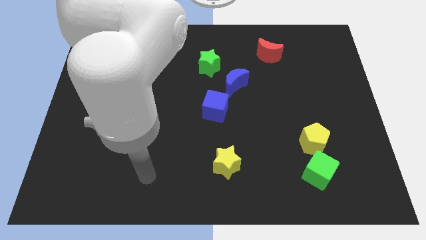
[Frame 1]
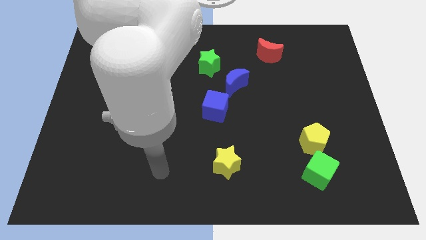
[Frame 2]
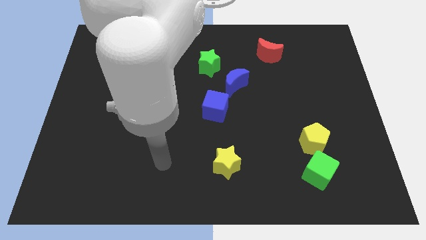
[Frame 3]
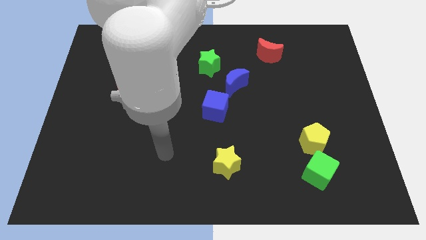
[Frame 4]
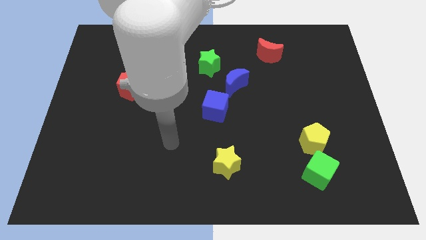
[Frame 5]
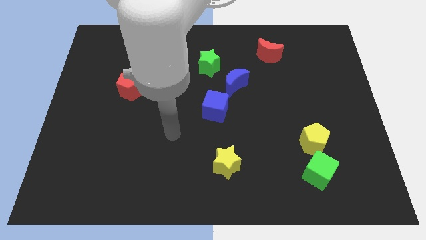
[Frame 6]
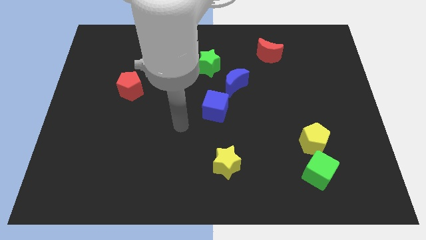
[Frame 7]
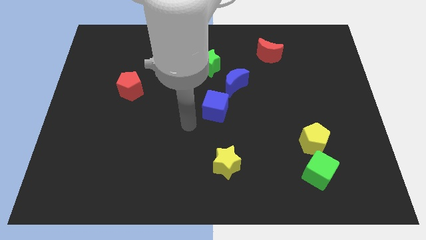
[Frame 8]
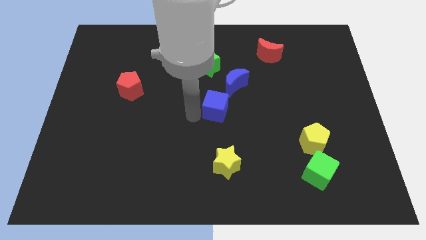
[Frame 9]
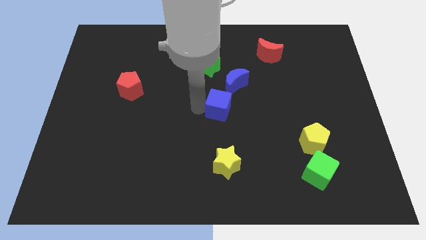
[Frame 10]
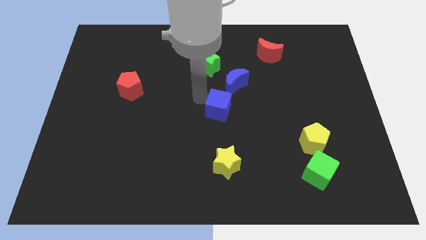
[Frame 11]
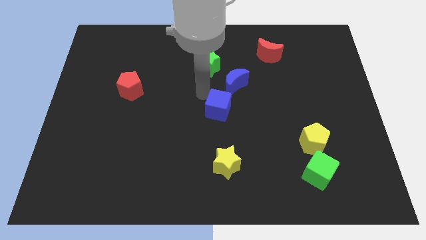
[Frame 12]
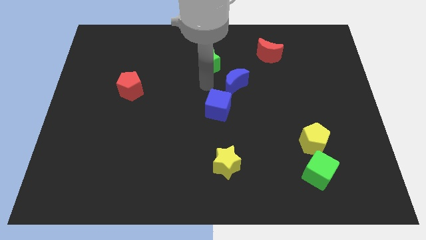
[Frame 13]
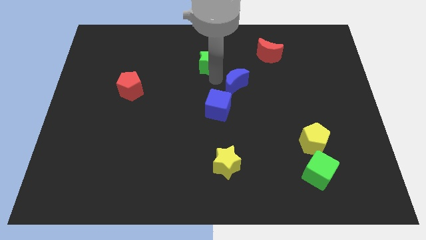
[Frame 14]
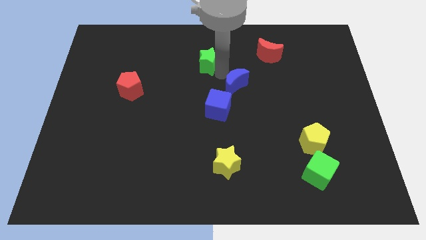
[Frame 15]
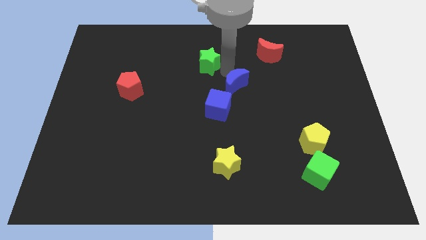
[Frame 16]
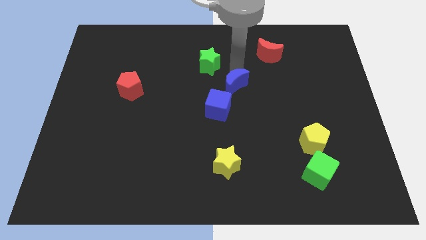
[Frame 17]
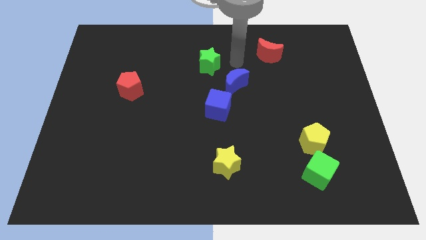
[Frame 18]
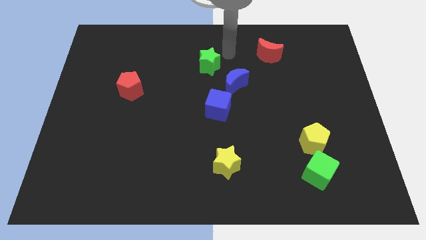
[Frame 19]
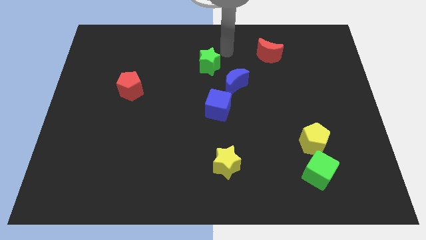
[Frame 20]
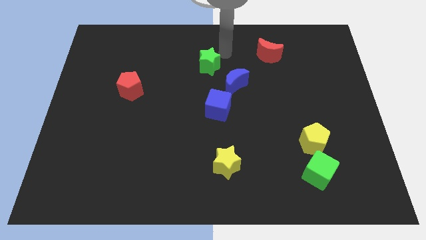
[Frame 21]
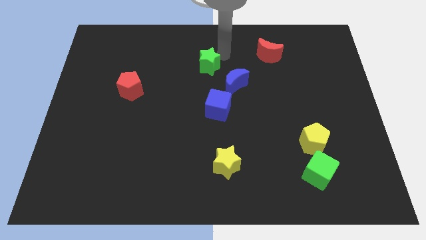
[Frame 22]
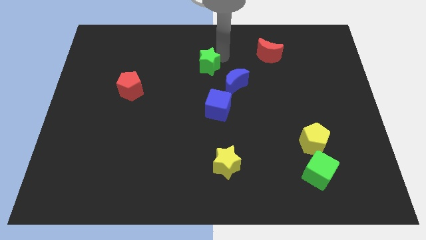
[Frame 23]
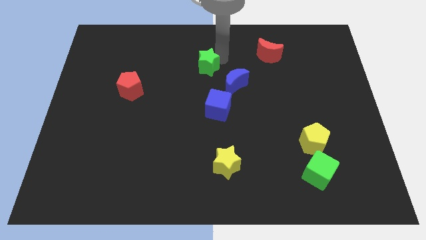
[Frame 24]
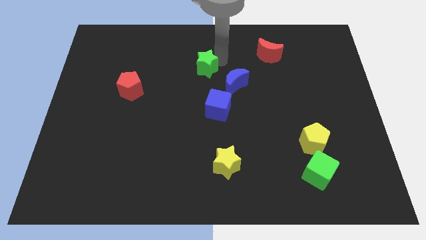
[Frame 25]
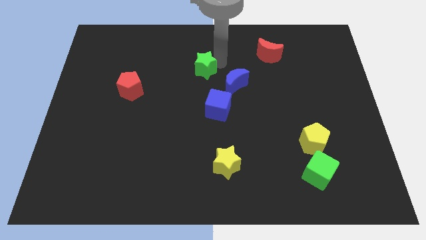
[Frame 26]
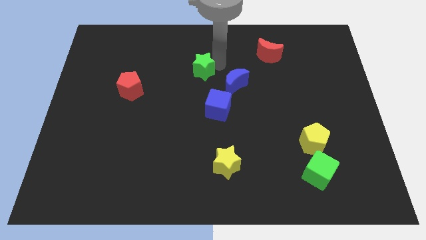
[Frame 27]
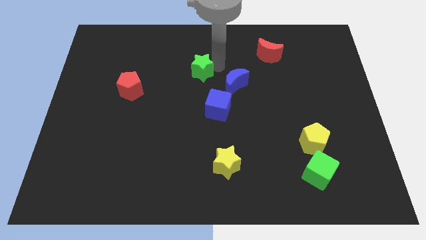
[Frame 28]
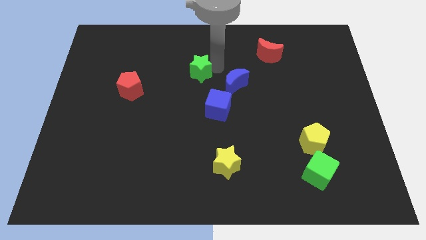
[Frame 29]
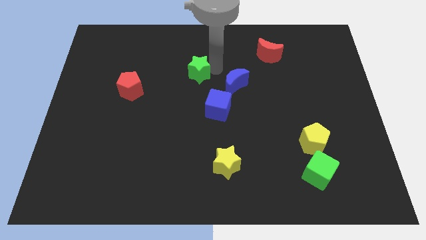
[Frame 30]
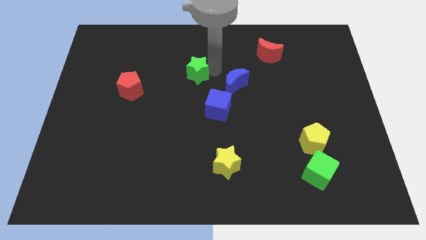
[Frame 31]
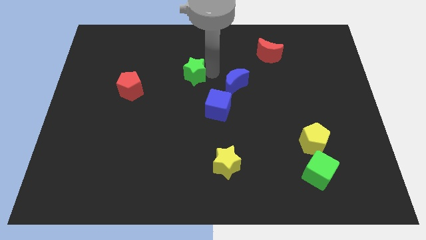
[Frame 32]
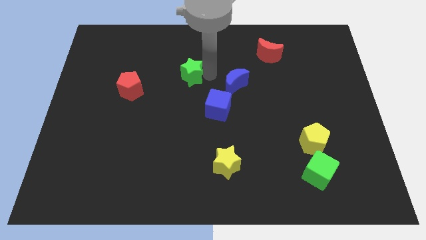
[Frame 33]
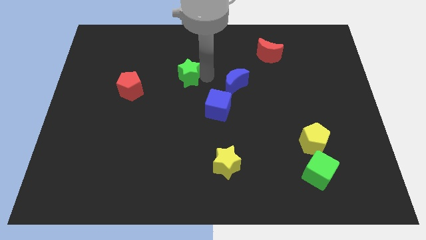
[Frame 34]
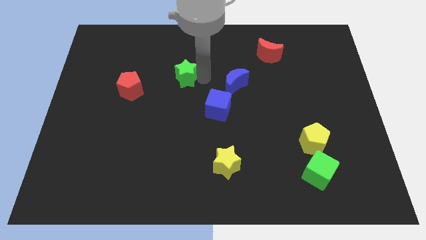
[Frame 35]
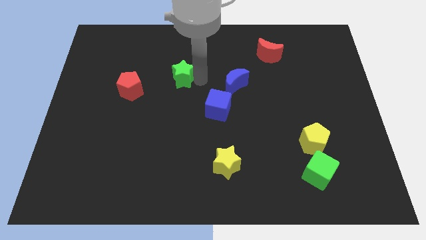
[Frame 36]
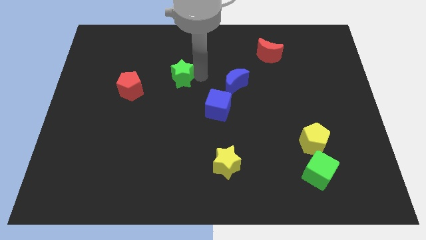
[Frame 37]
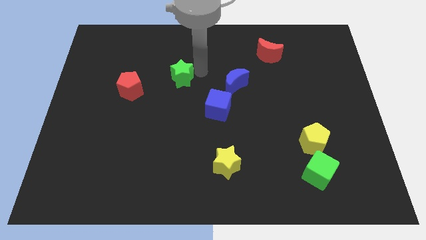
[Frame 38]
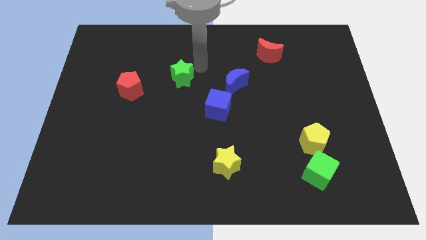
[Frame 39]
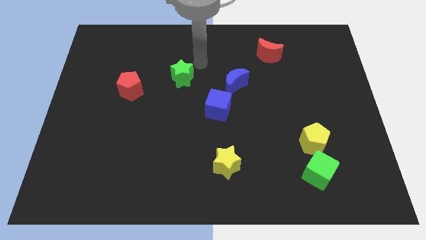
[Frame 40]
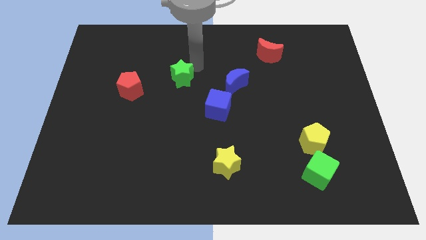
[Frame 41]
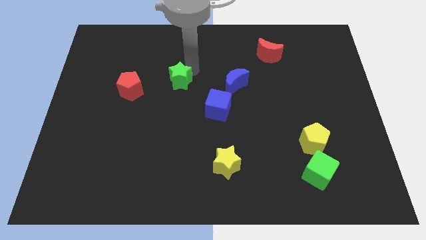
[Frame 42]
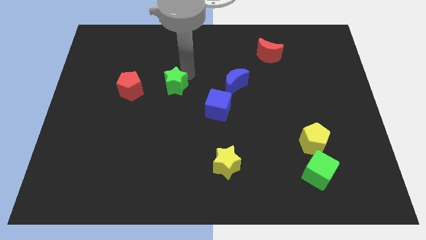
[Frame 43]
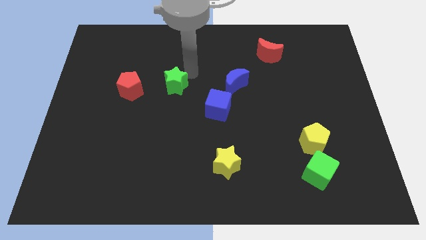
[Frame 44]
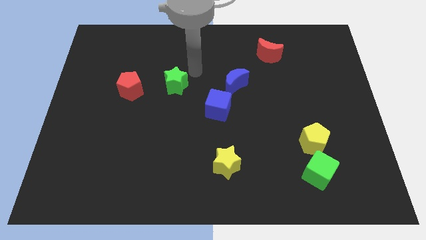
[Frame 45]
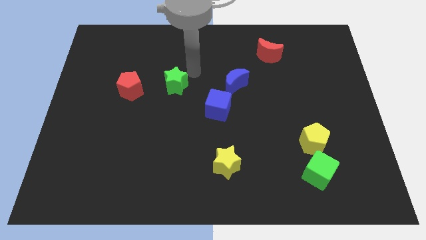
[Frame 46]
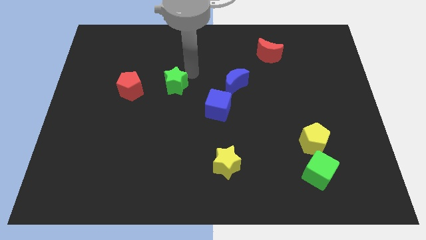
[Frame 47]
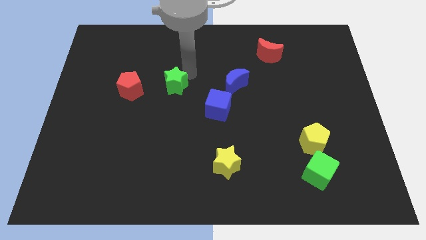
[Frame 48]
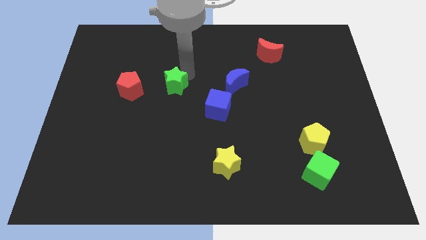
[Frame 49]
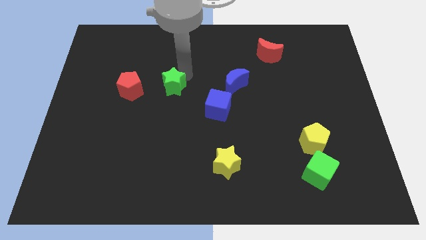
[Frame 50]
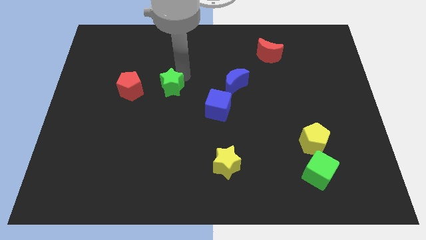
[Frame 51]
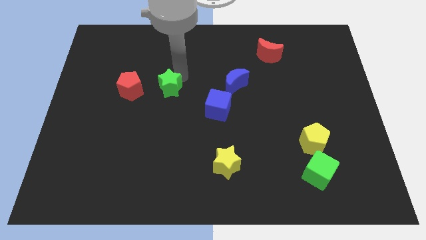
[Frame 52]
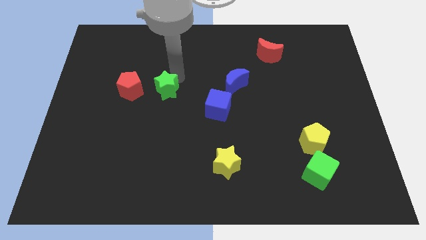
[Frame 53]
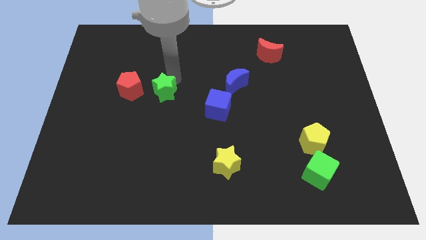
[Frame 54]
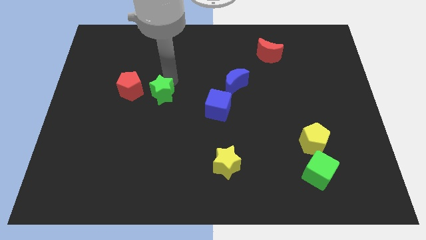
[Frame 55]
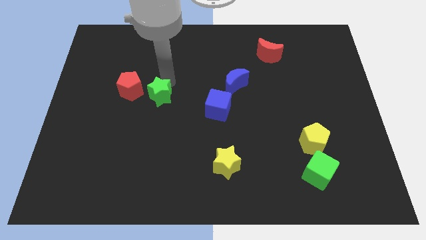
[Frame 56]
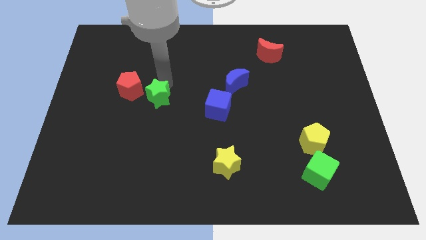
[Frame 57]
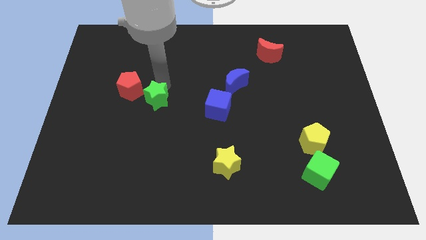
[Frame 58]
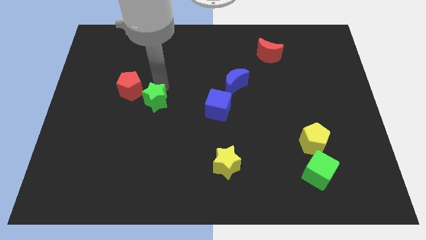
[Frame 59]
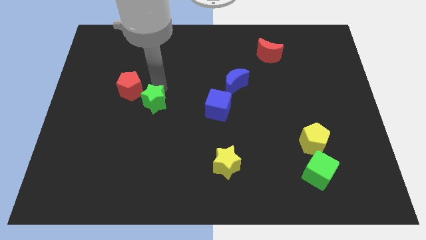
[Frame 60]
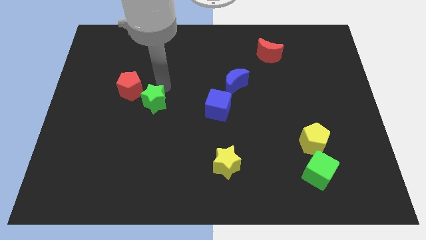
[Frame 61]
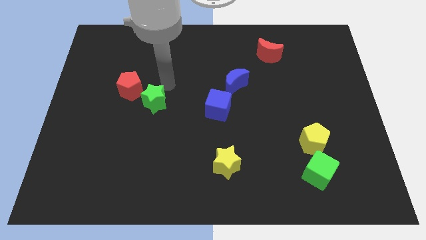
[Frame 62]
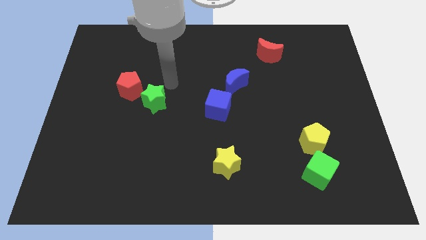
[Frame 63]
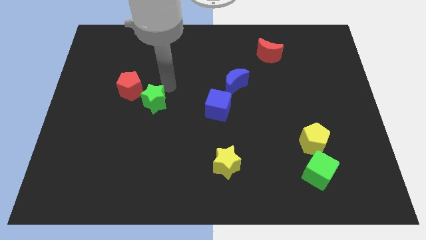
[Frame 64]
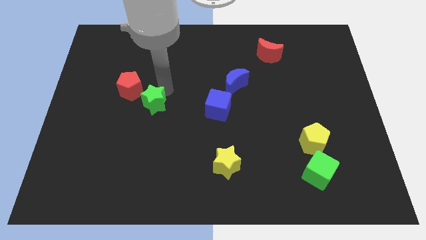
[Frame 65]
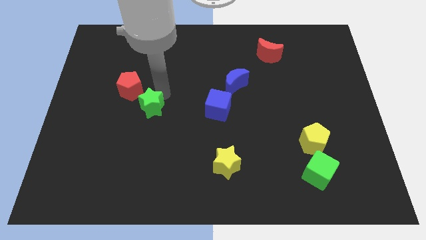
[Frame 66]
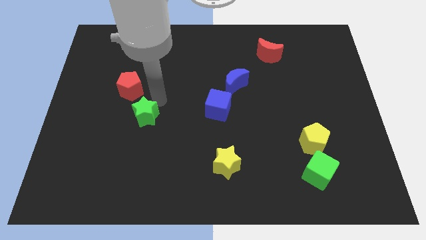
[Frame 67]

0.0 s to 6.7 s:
slide the green star down and left diagonally

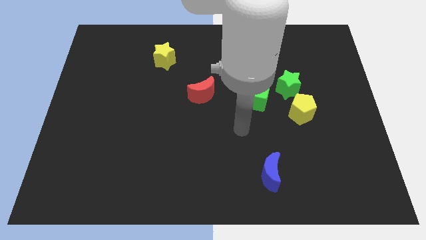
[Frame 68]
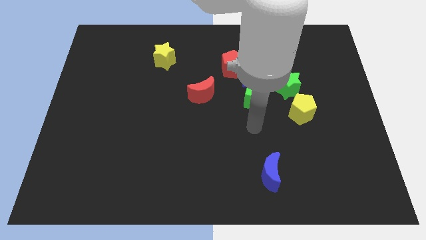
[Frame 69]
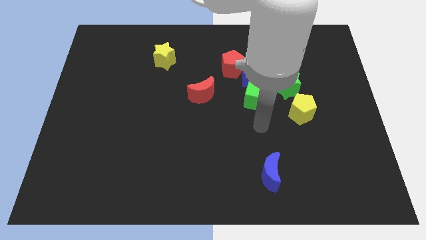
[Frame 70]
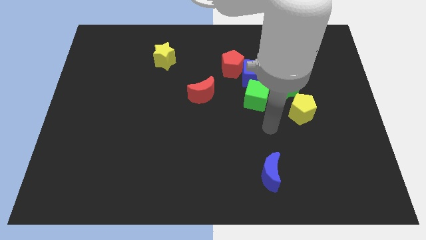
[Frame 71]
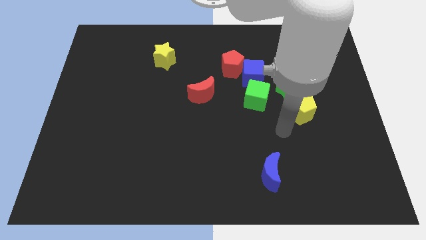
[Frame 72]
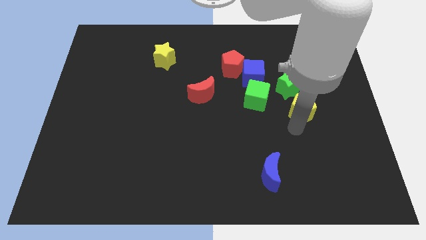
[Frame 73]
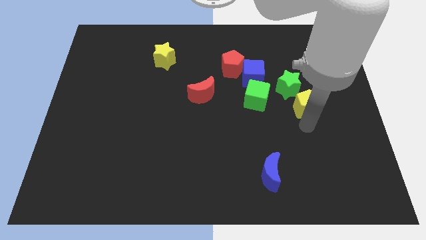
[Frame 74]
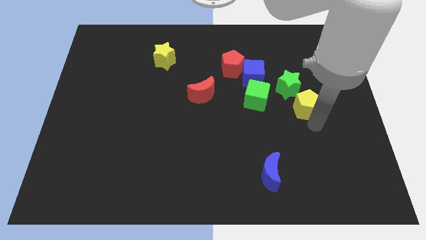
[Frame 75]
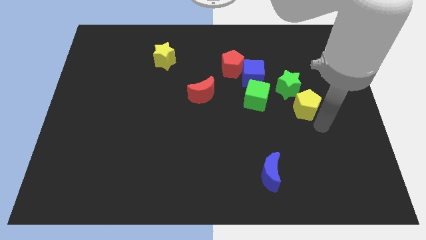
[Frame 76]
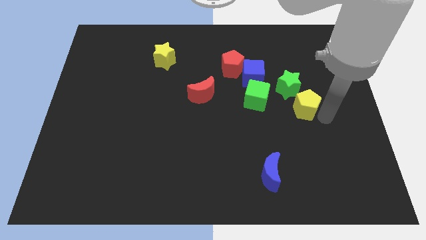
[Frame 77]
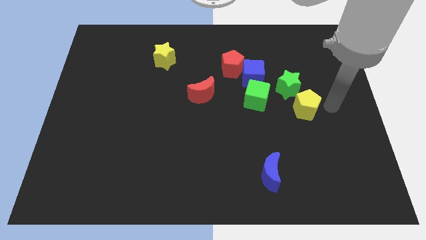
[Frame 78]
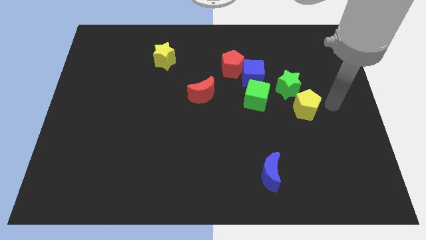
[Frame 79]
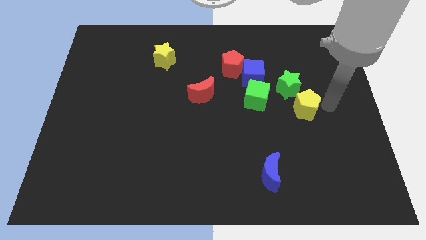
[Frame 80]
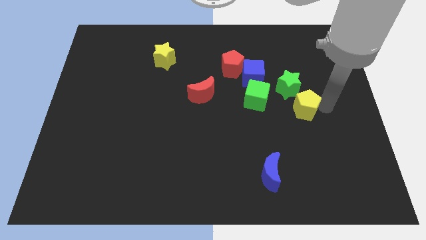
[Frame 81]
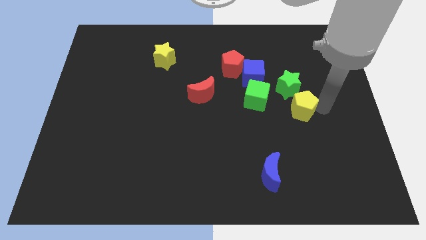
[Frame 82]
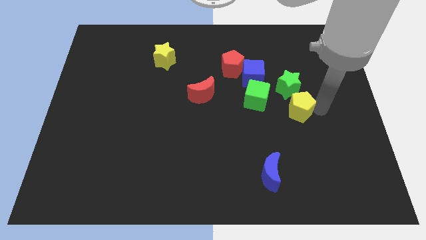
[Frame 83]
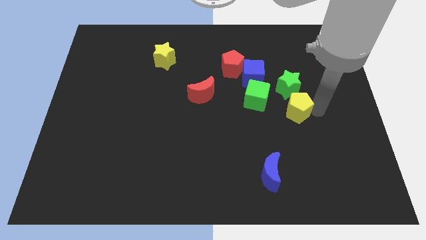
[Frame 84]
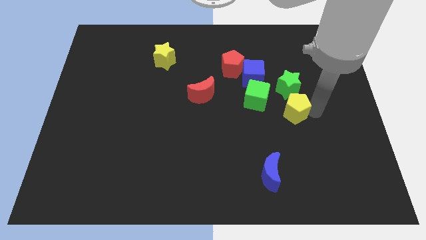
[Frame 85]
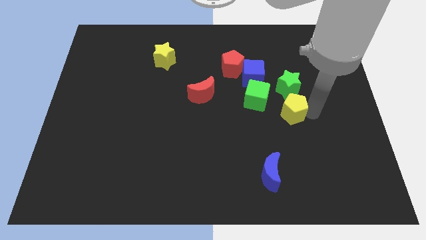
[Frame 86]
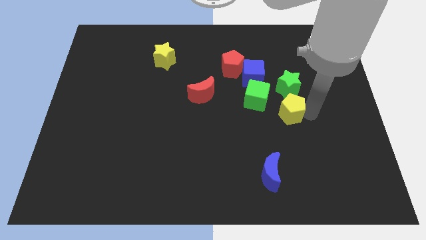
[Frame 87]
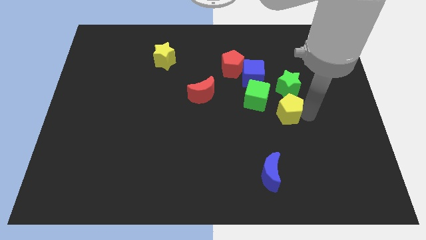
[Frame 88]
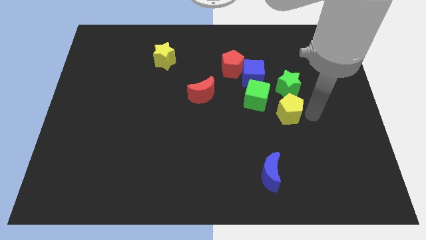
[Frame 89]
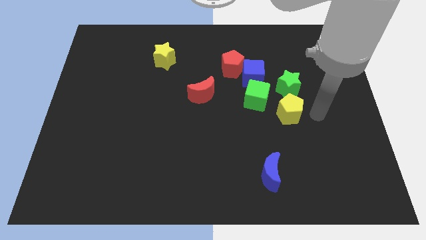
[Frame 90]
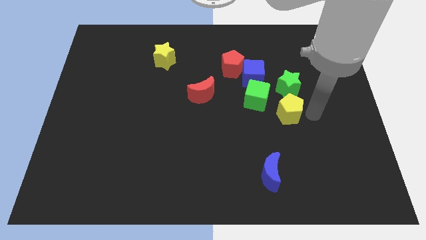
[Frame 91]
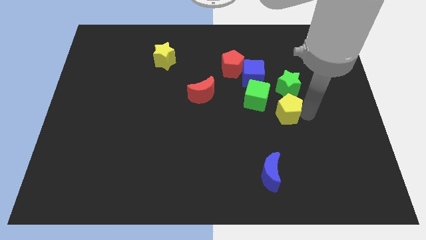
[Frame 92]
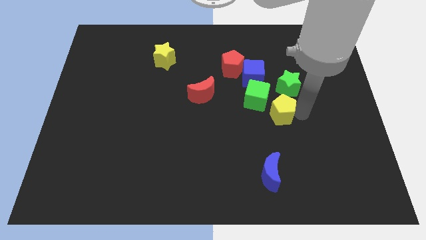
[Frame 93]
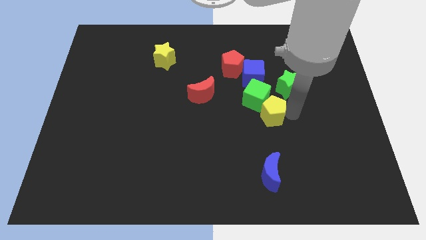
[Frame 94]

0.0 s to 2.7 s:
slide the yellow pentagon a little bit to the left
